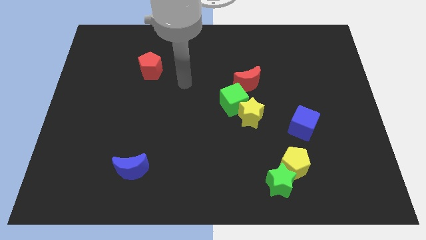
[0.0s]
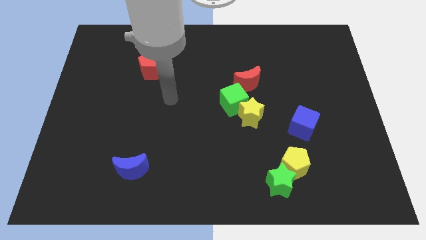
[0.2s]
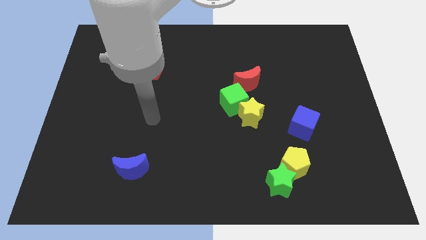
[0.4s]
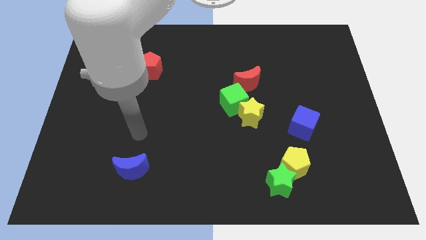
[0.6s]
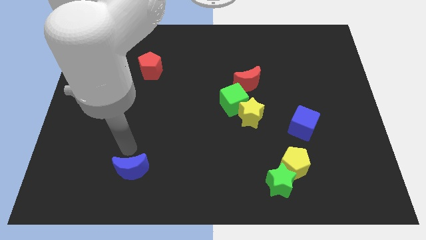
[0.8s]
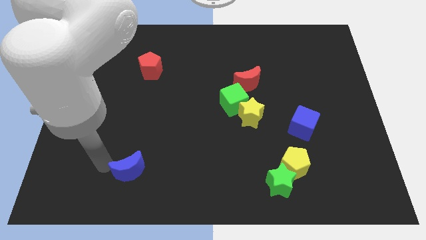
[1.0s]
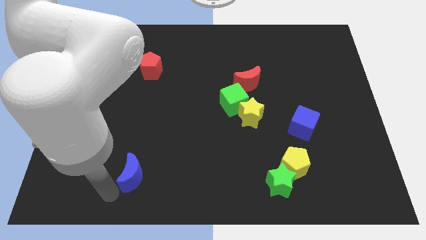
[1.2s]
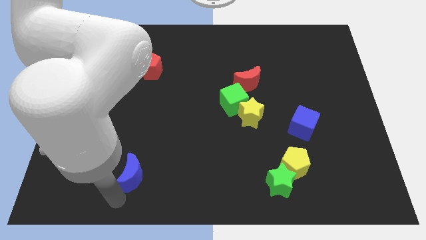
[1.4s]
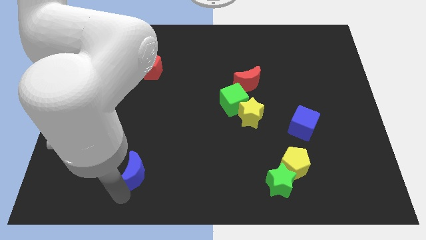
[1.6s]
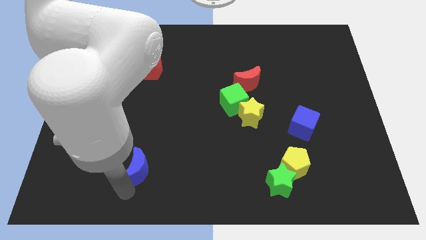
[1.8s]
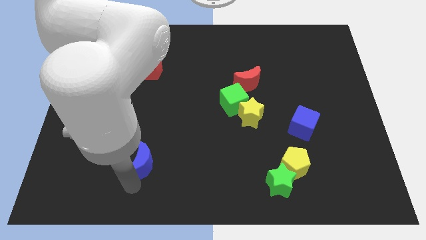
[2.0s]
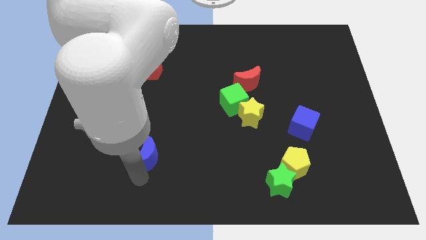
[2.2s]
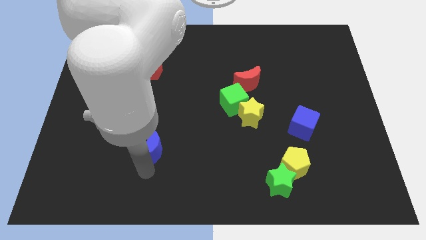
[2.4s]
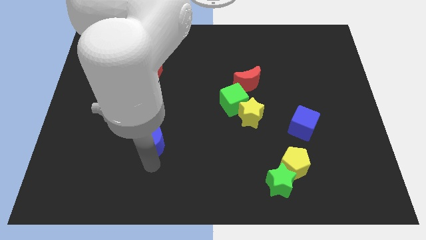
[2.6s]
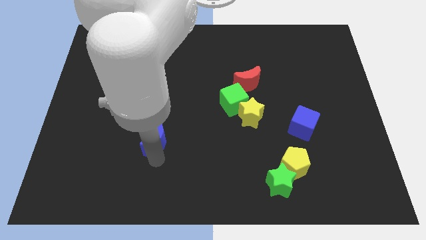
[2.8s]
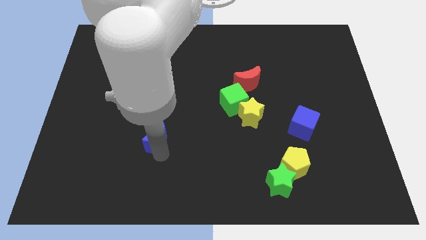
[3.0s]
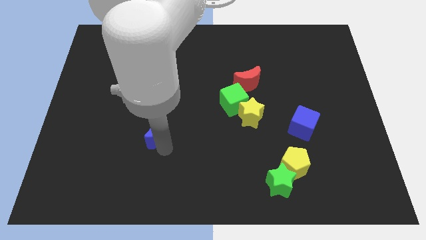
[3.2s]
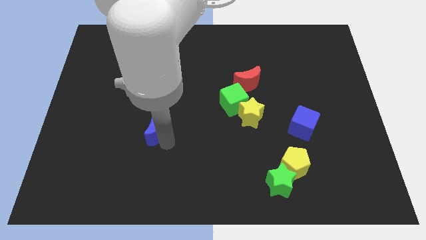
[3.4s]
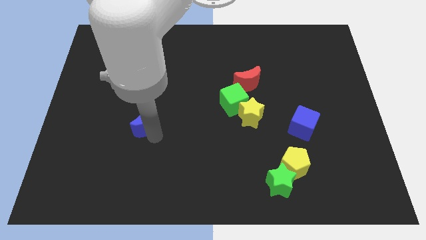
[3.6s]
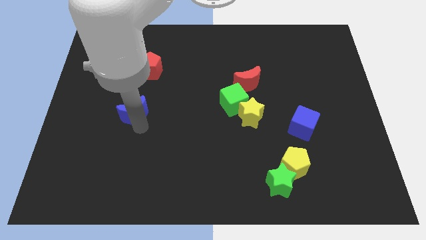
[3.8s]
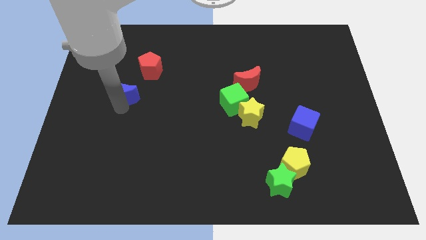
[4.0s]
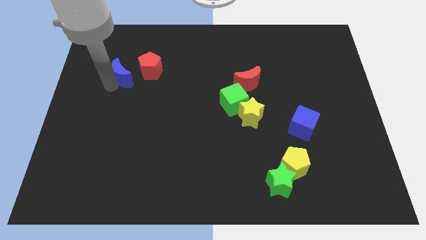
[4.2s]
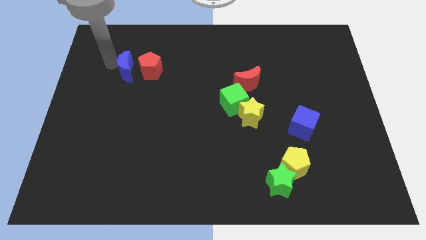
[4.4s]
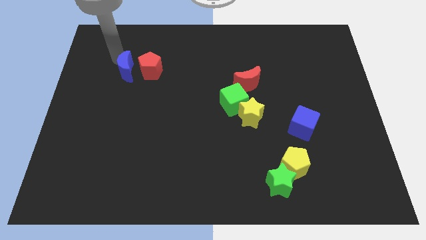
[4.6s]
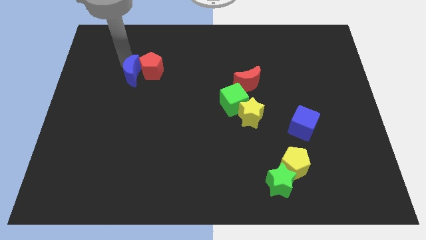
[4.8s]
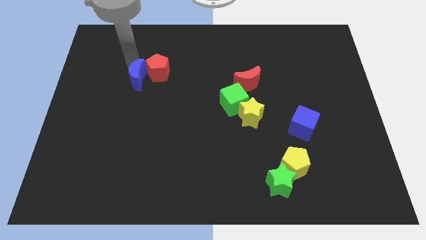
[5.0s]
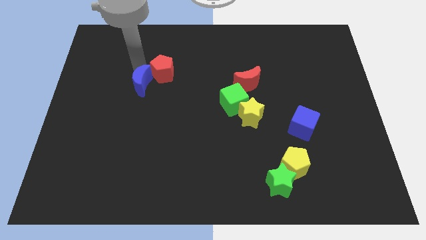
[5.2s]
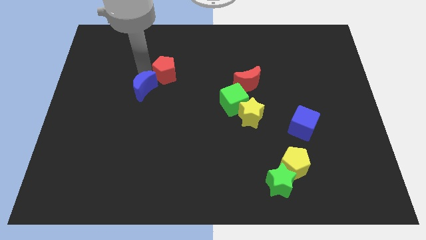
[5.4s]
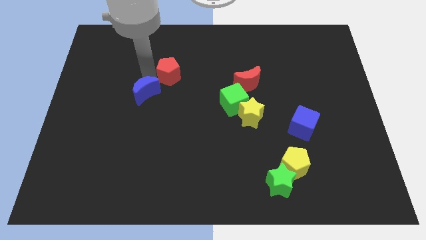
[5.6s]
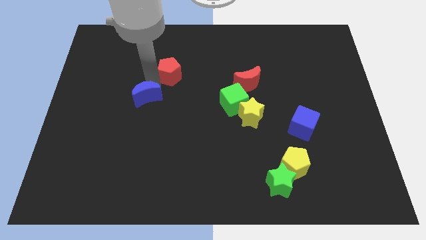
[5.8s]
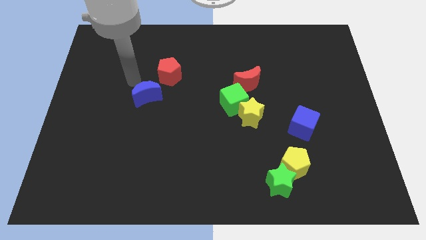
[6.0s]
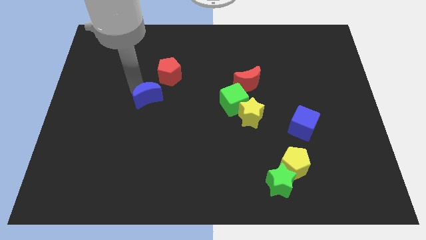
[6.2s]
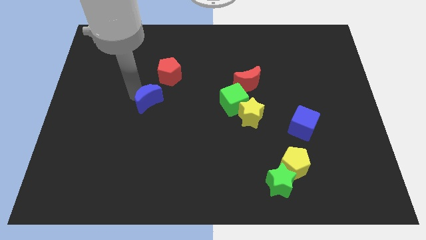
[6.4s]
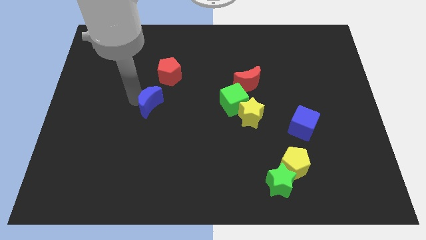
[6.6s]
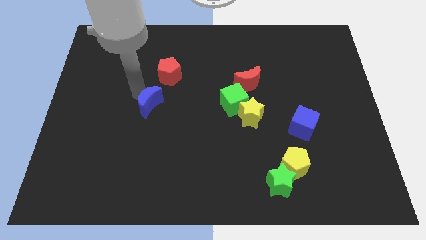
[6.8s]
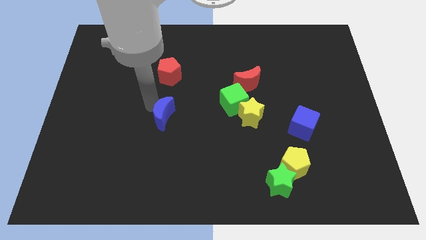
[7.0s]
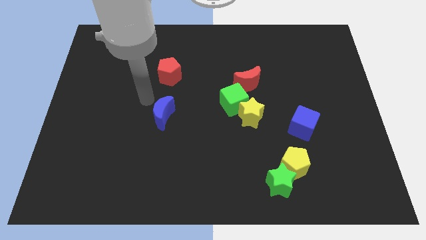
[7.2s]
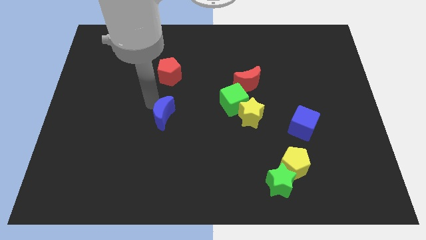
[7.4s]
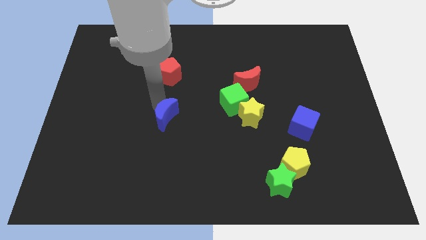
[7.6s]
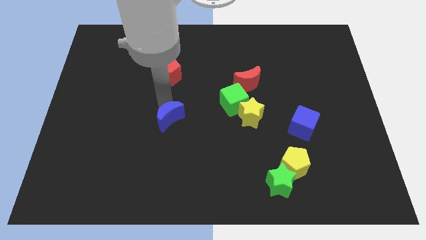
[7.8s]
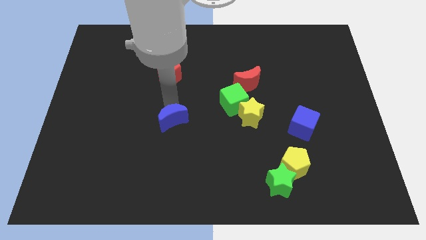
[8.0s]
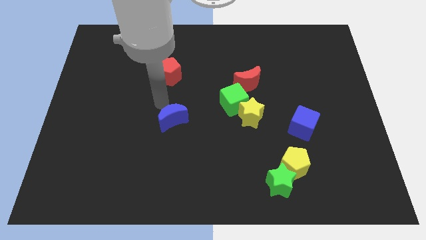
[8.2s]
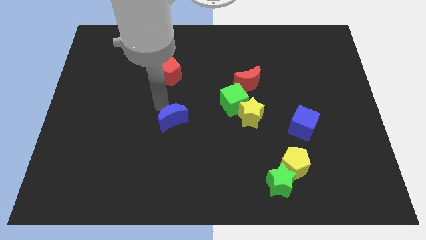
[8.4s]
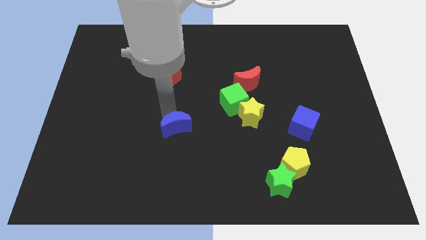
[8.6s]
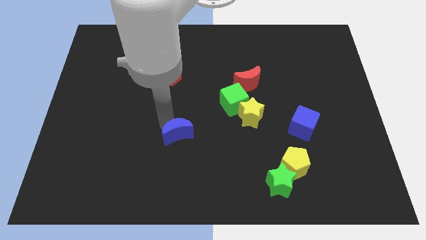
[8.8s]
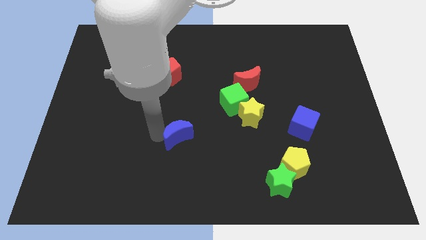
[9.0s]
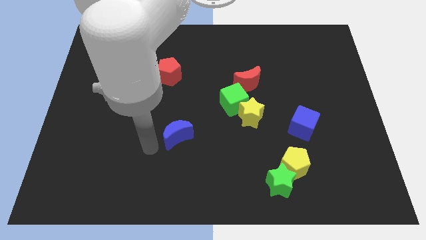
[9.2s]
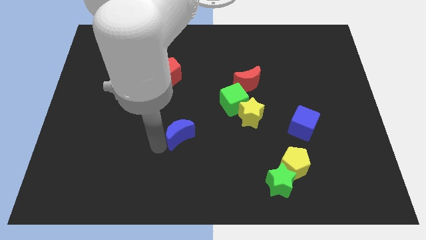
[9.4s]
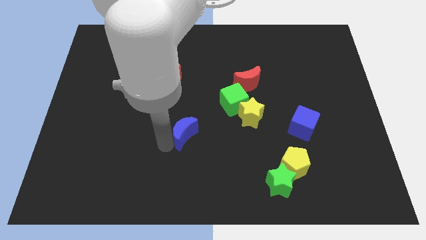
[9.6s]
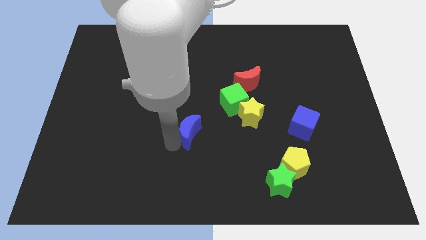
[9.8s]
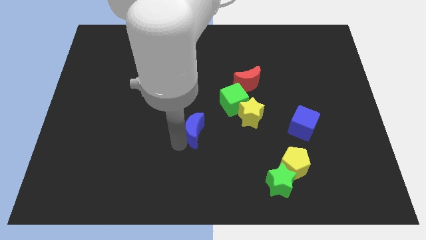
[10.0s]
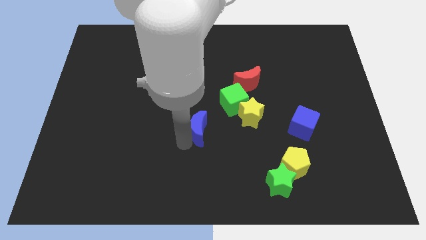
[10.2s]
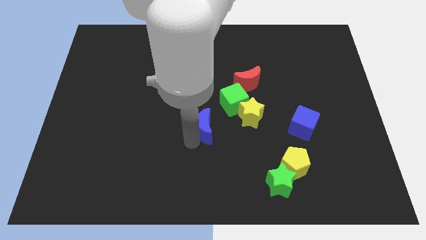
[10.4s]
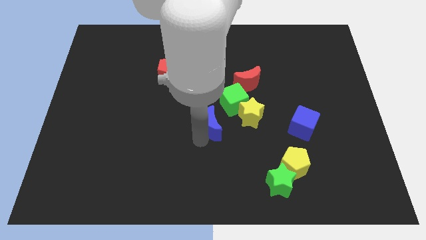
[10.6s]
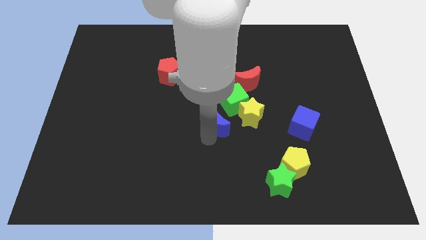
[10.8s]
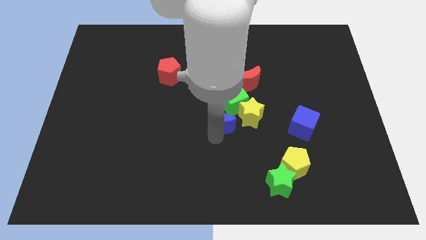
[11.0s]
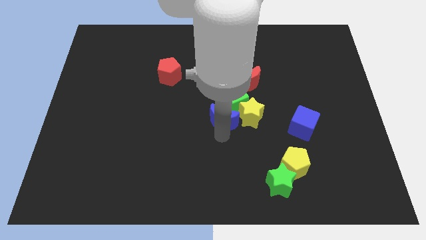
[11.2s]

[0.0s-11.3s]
push the blue moon next to the green cube

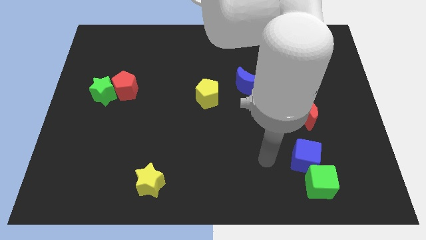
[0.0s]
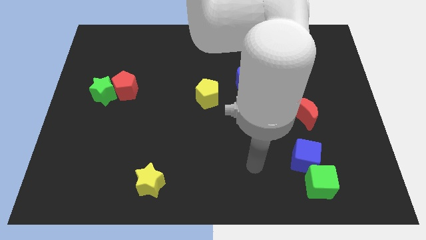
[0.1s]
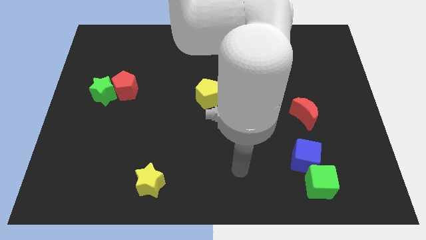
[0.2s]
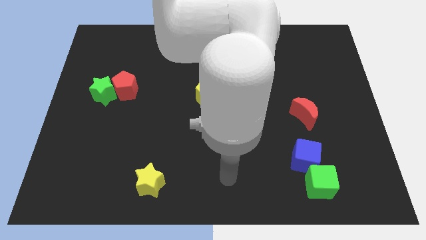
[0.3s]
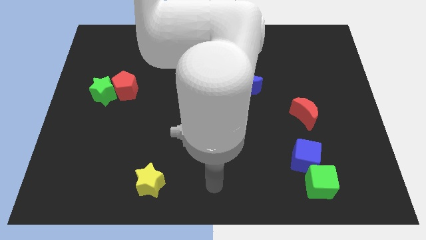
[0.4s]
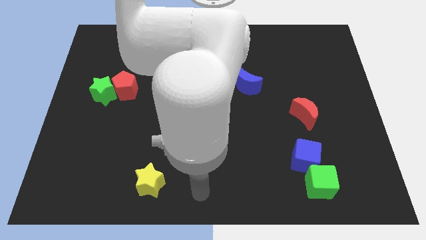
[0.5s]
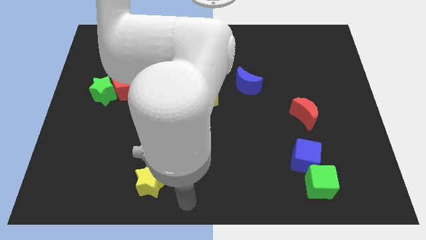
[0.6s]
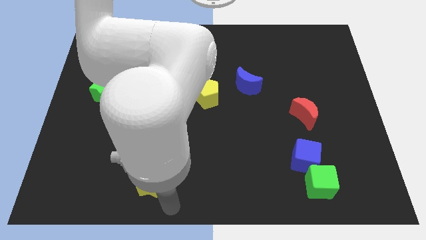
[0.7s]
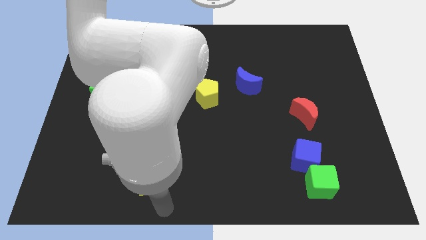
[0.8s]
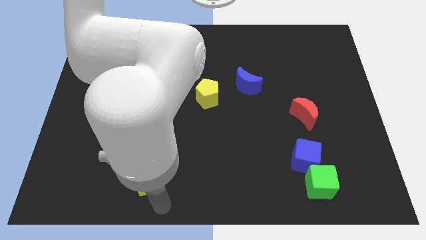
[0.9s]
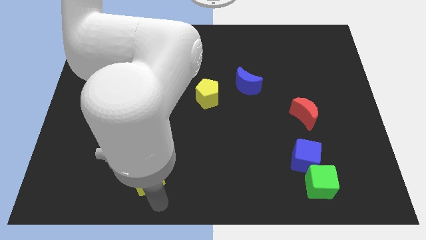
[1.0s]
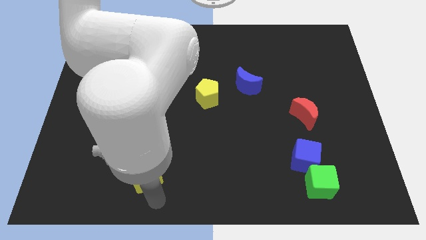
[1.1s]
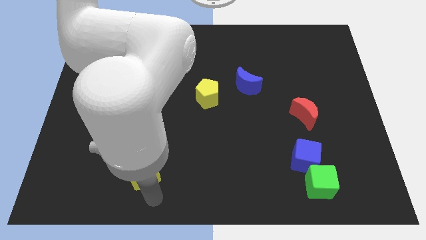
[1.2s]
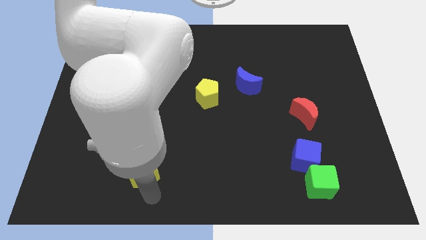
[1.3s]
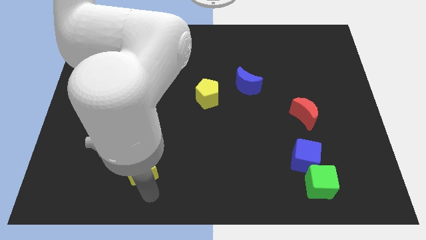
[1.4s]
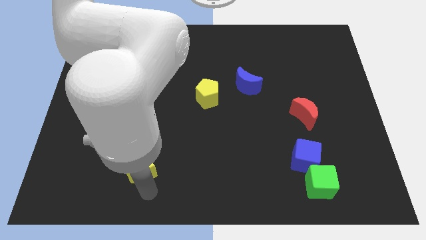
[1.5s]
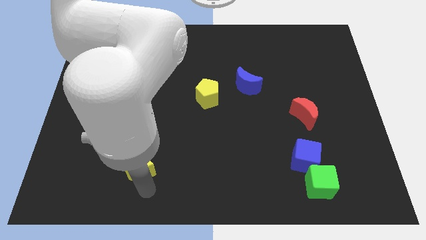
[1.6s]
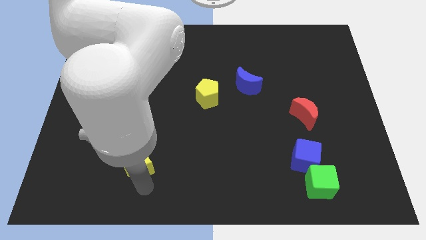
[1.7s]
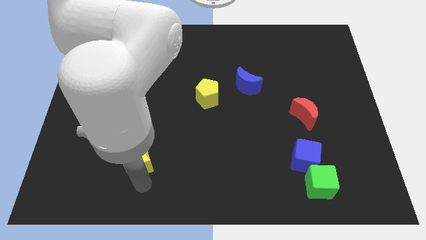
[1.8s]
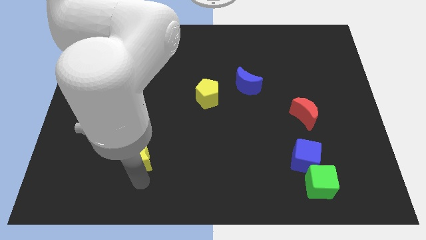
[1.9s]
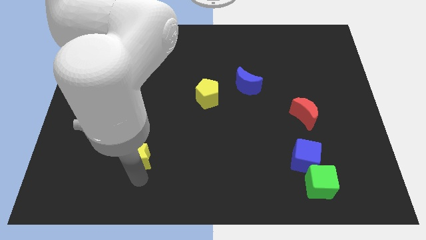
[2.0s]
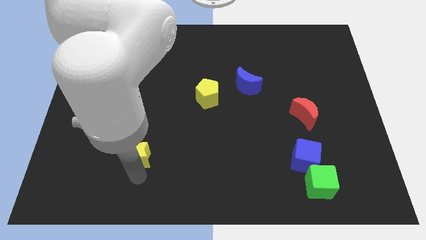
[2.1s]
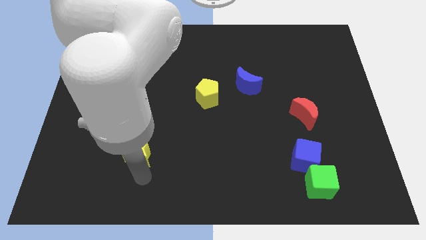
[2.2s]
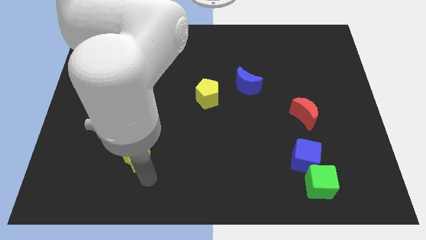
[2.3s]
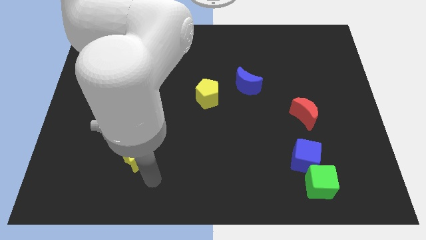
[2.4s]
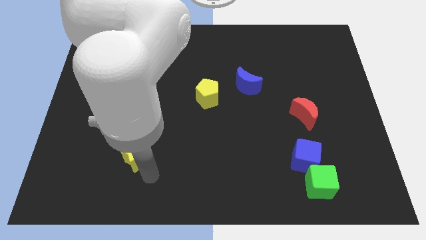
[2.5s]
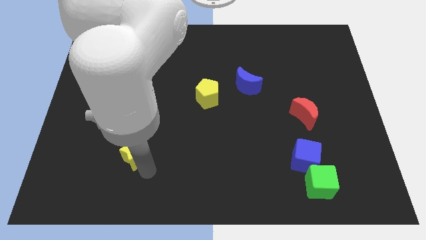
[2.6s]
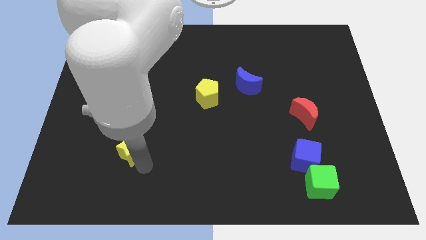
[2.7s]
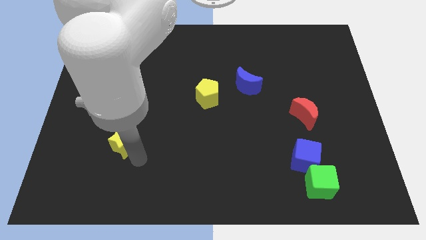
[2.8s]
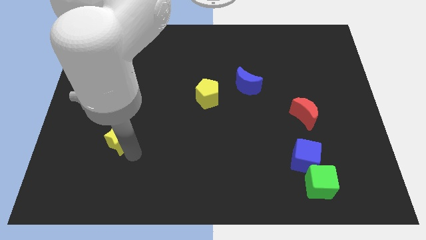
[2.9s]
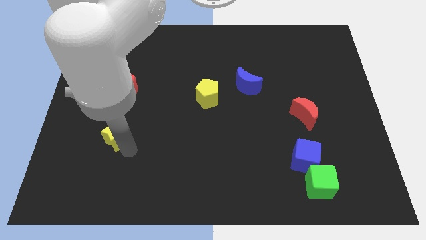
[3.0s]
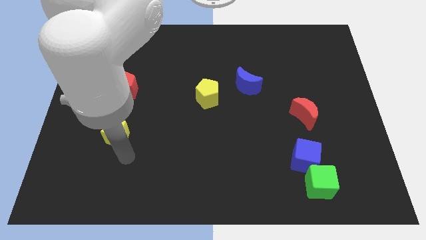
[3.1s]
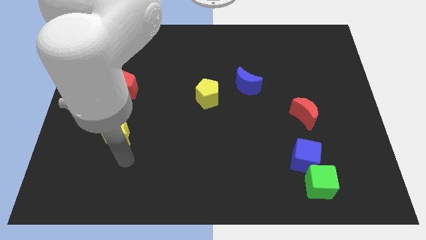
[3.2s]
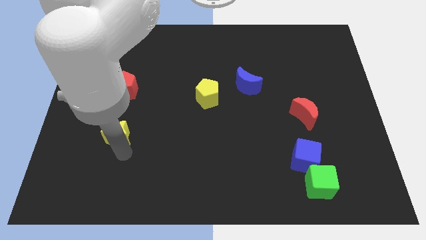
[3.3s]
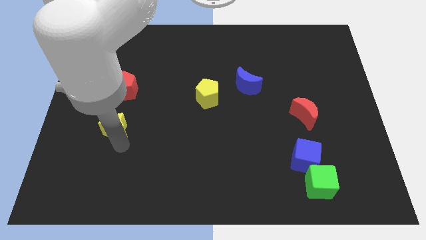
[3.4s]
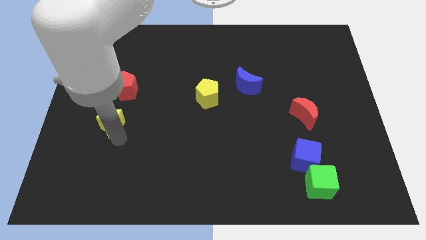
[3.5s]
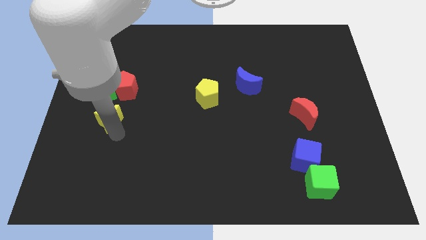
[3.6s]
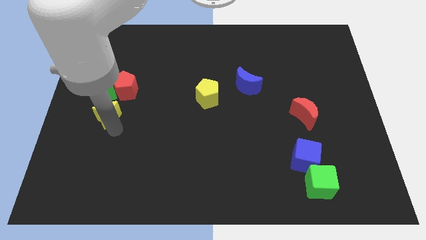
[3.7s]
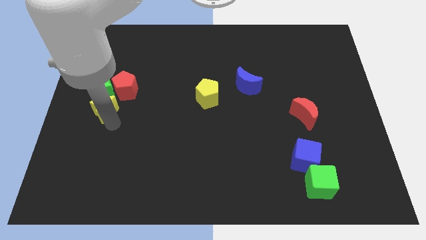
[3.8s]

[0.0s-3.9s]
slide the yellow star close to the green star
